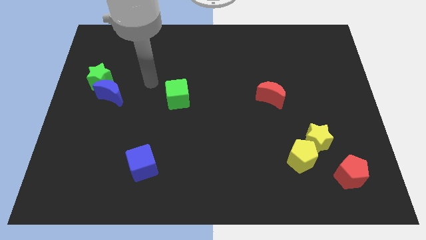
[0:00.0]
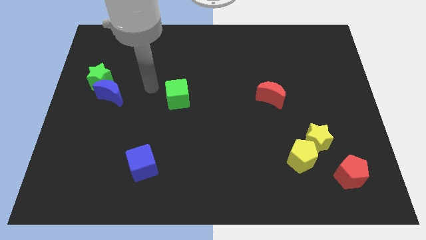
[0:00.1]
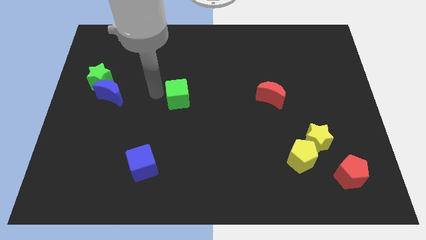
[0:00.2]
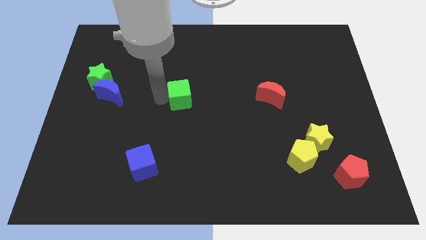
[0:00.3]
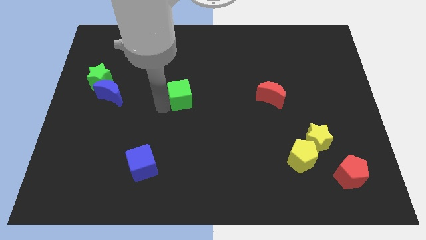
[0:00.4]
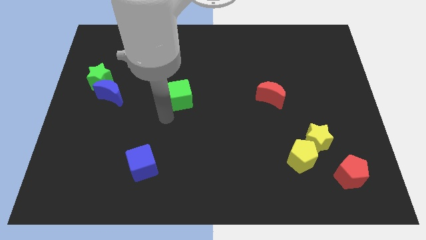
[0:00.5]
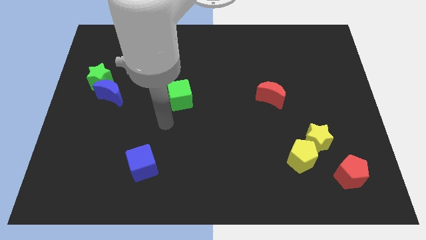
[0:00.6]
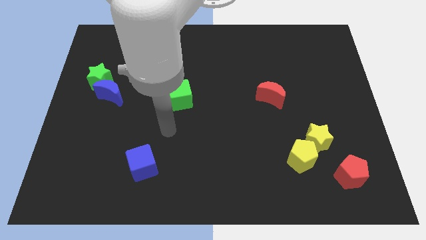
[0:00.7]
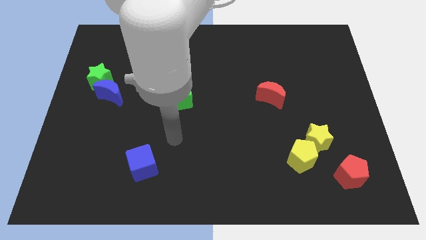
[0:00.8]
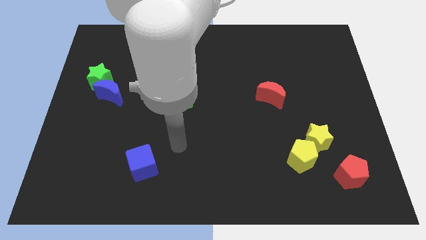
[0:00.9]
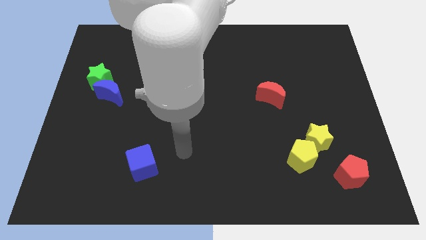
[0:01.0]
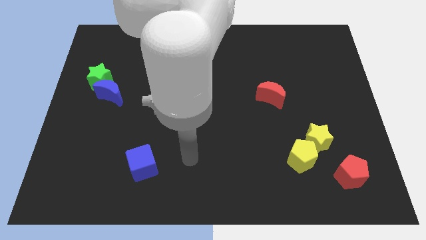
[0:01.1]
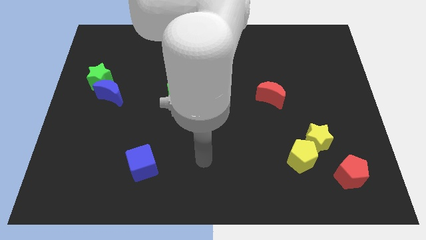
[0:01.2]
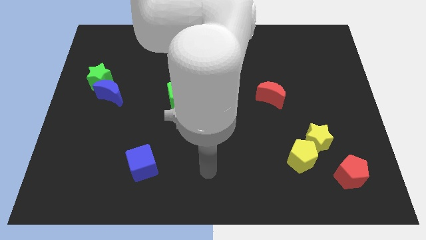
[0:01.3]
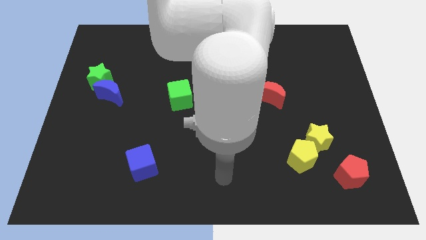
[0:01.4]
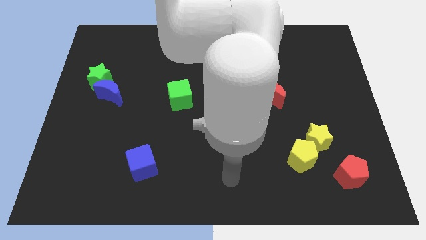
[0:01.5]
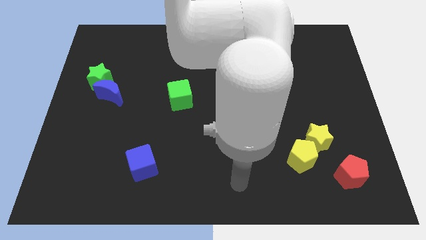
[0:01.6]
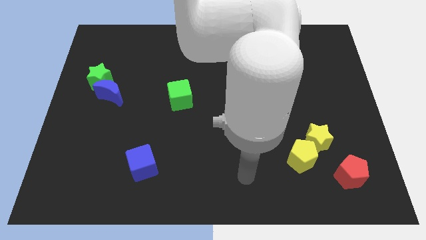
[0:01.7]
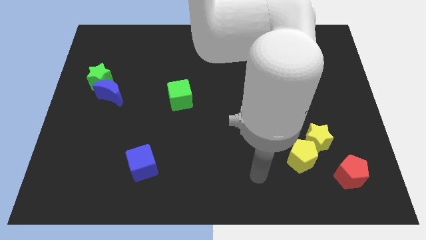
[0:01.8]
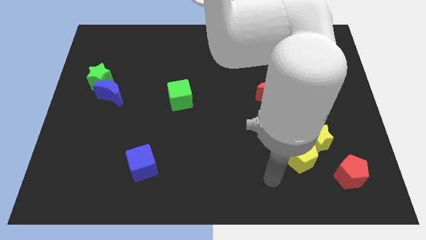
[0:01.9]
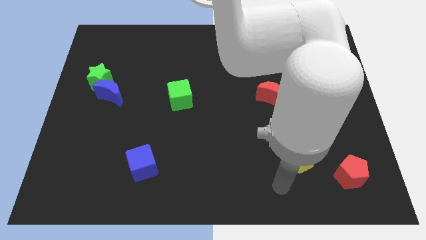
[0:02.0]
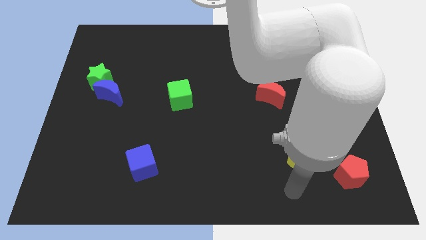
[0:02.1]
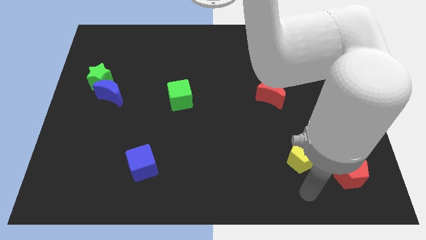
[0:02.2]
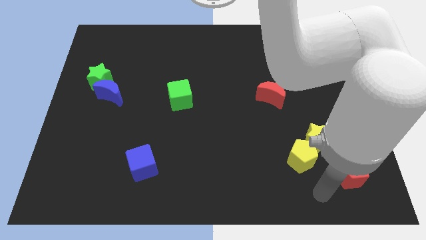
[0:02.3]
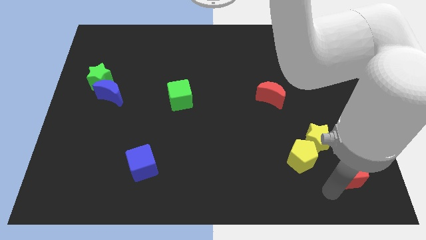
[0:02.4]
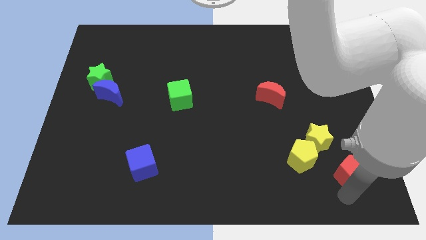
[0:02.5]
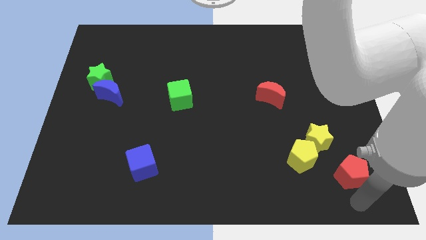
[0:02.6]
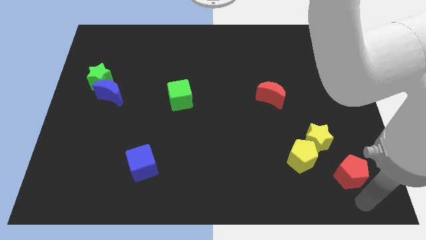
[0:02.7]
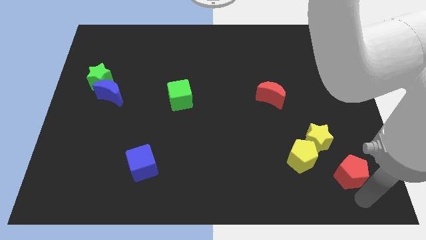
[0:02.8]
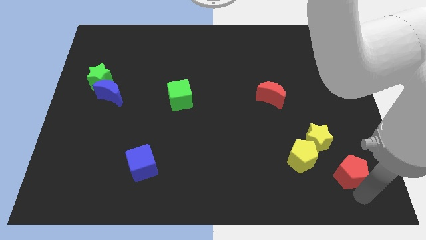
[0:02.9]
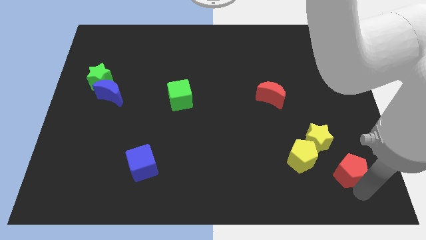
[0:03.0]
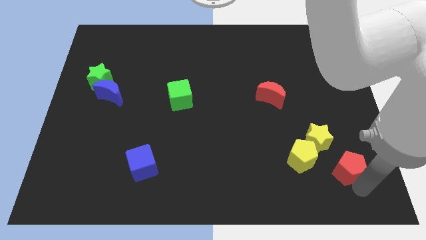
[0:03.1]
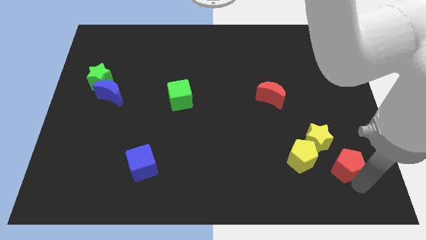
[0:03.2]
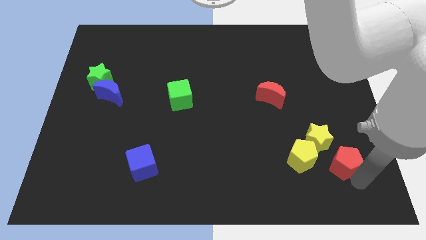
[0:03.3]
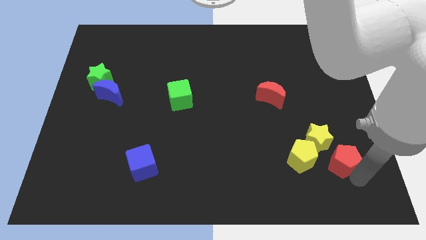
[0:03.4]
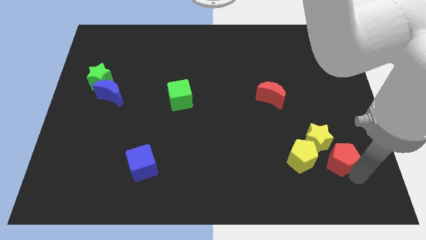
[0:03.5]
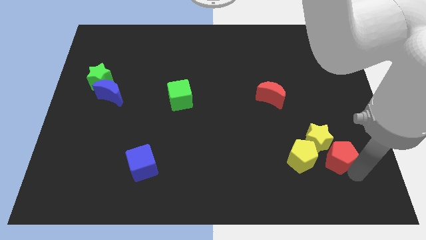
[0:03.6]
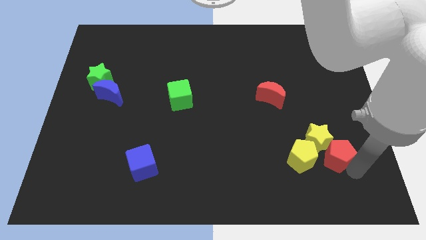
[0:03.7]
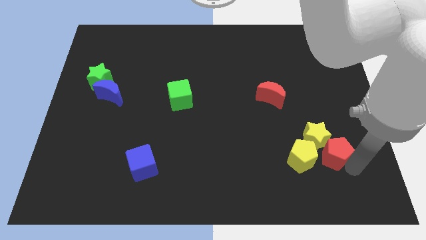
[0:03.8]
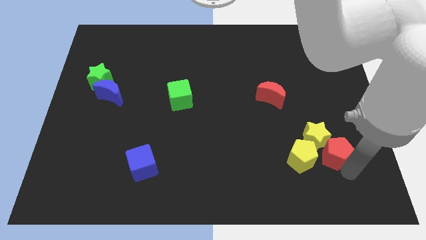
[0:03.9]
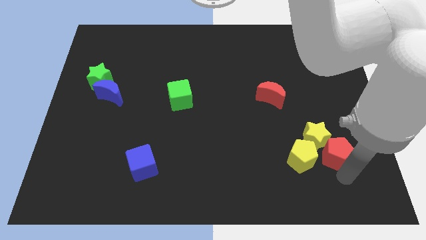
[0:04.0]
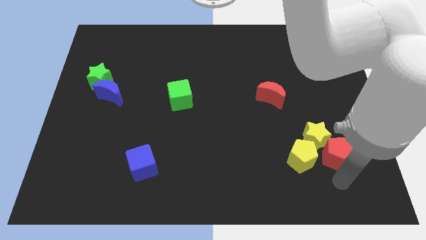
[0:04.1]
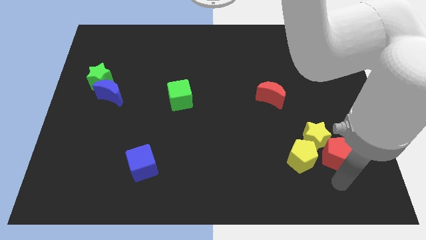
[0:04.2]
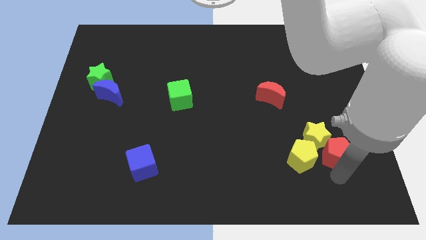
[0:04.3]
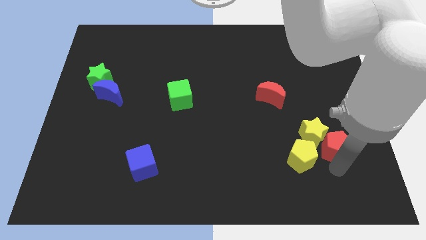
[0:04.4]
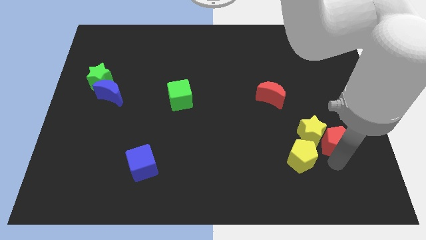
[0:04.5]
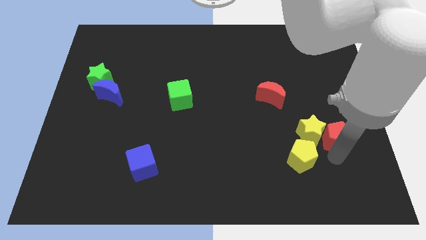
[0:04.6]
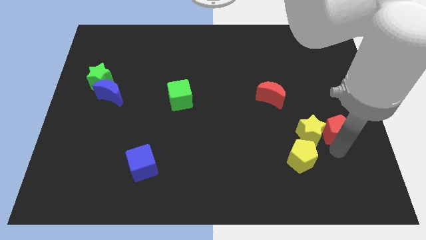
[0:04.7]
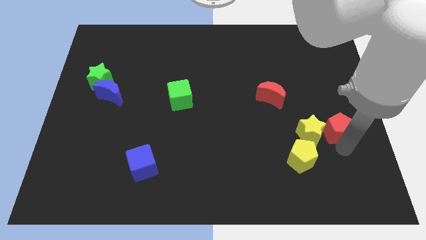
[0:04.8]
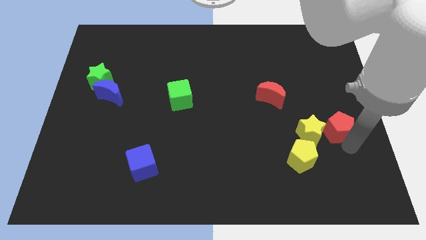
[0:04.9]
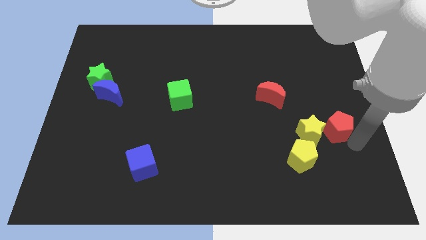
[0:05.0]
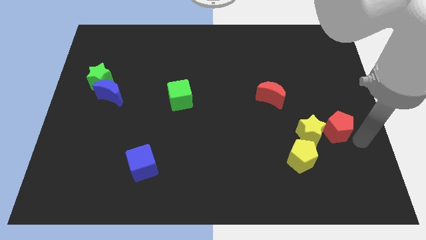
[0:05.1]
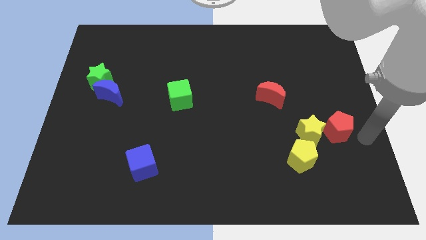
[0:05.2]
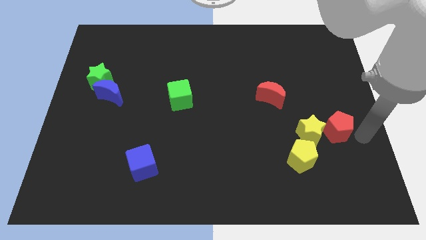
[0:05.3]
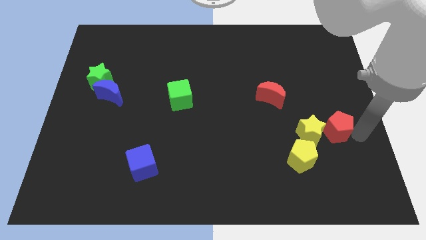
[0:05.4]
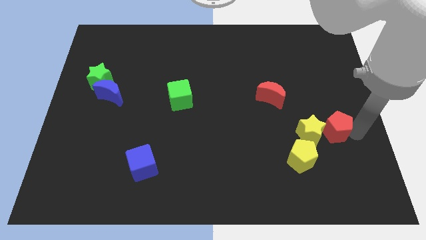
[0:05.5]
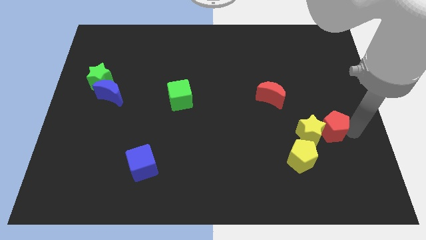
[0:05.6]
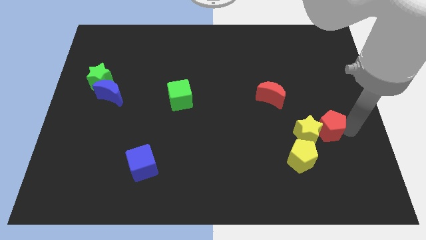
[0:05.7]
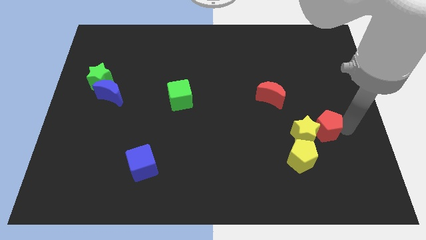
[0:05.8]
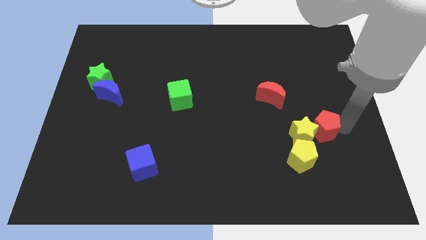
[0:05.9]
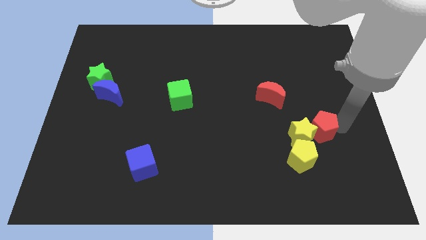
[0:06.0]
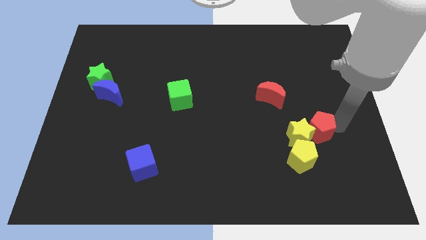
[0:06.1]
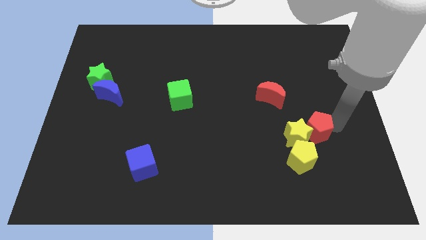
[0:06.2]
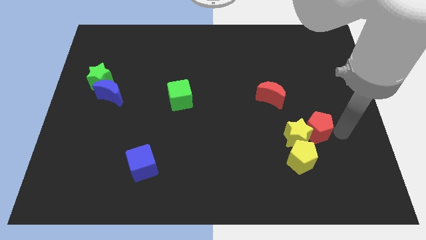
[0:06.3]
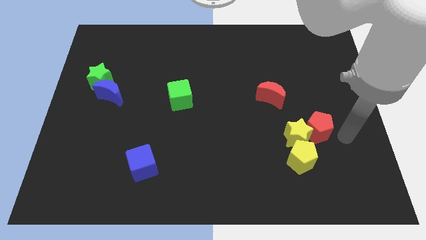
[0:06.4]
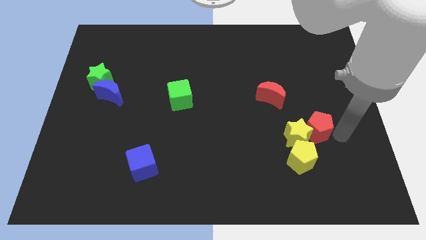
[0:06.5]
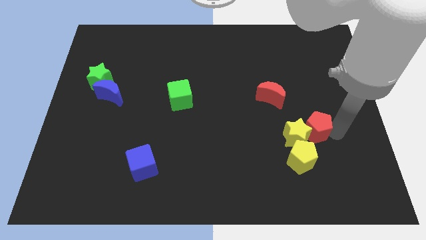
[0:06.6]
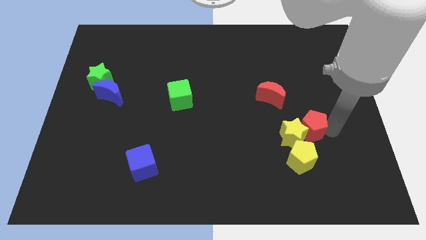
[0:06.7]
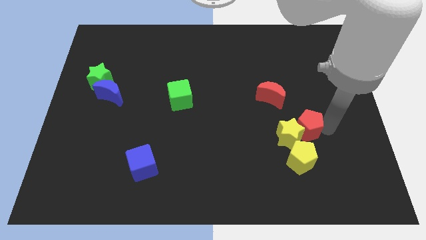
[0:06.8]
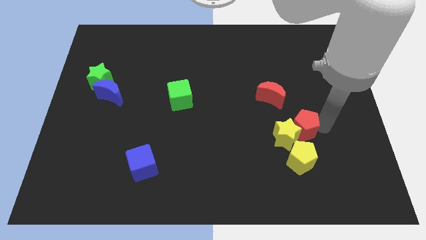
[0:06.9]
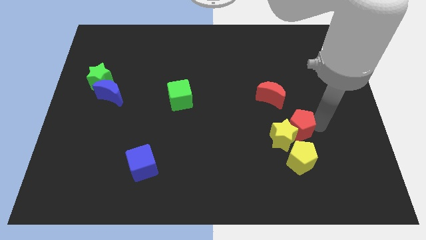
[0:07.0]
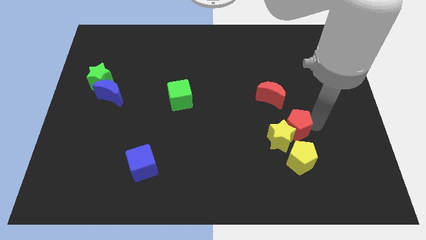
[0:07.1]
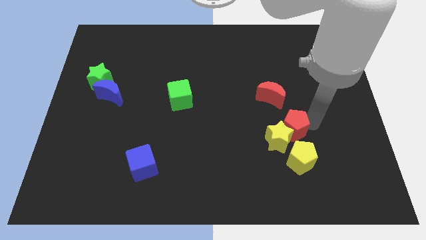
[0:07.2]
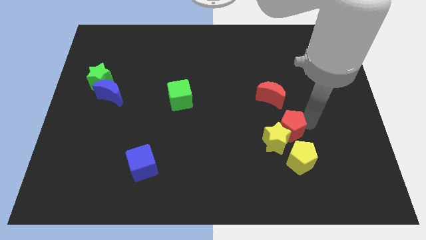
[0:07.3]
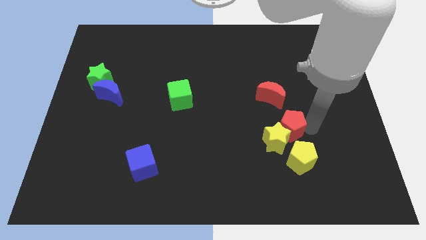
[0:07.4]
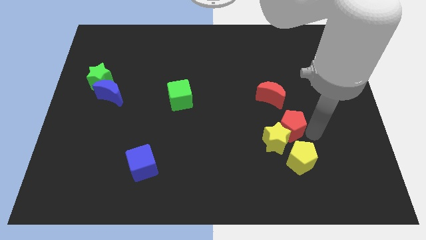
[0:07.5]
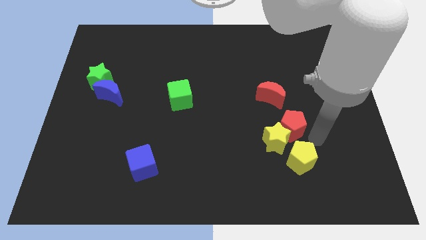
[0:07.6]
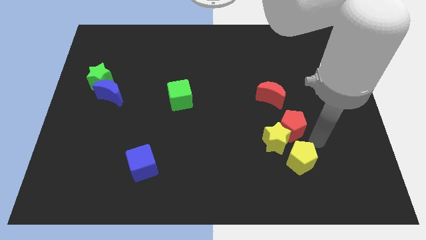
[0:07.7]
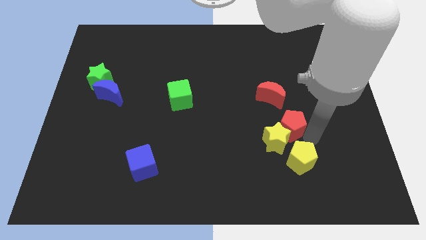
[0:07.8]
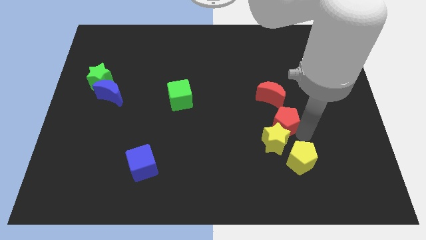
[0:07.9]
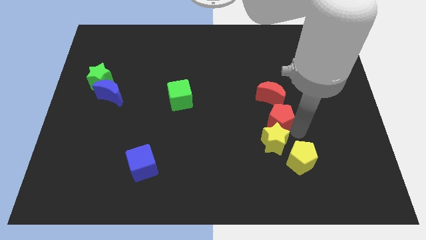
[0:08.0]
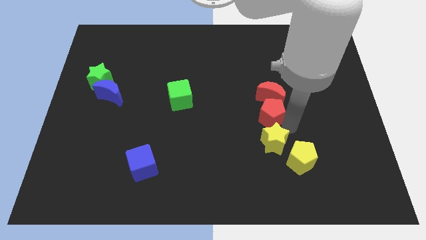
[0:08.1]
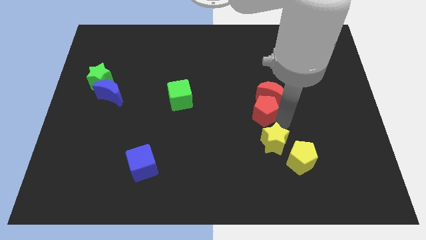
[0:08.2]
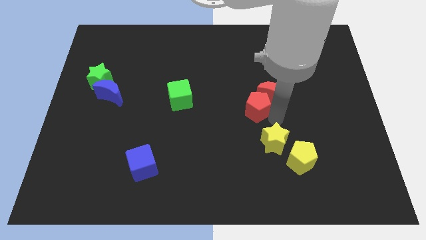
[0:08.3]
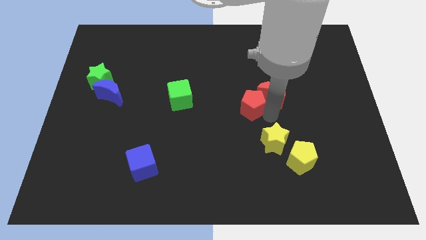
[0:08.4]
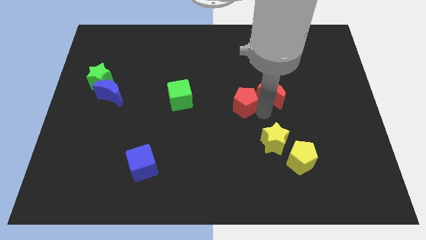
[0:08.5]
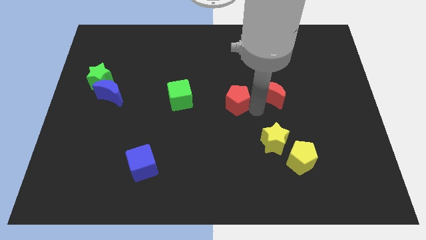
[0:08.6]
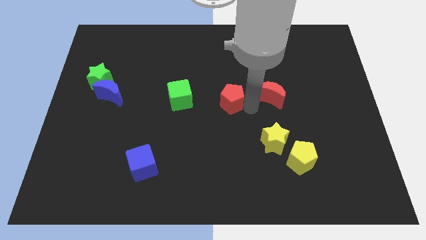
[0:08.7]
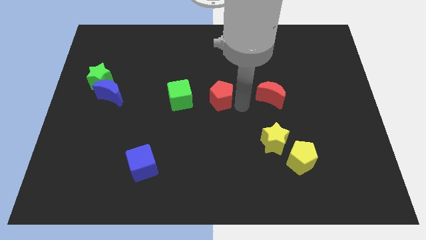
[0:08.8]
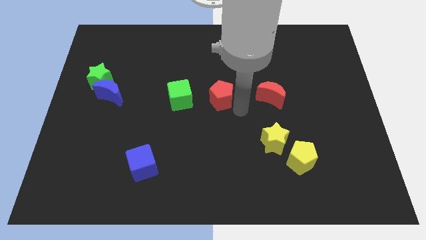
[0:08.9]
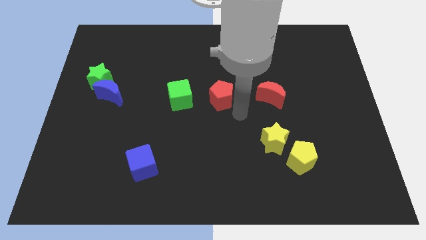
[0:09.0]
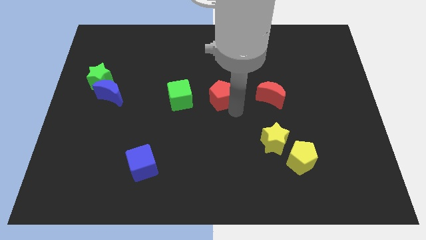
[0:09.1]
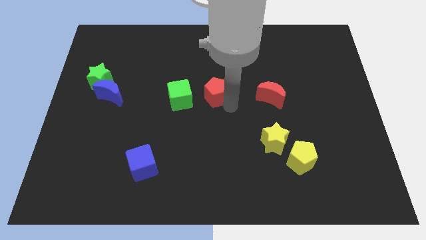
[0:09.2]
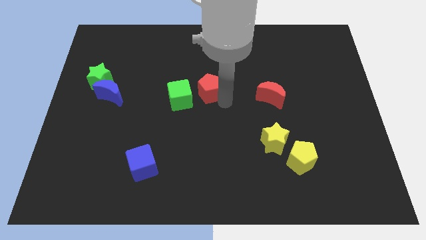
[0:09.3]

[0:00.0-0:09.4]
put the red pentagon to the top right side of the green cube
